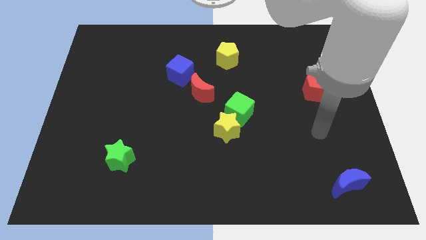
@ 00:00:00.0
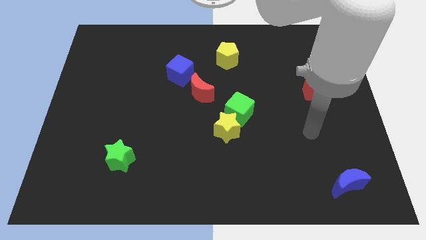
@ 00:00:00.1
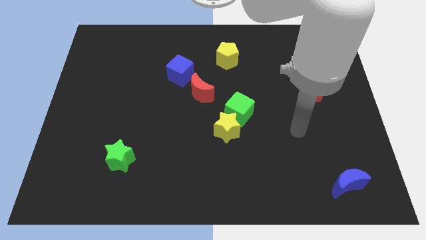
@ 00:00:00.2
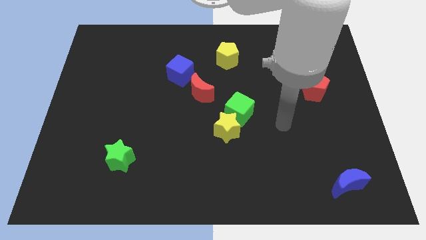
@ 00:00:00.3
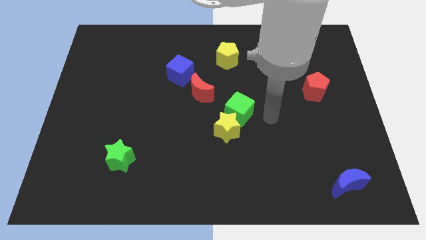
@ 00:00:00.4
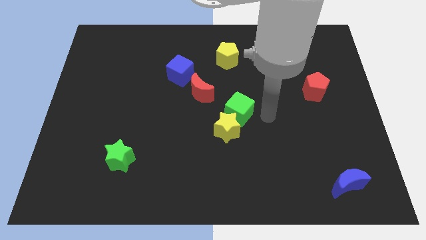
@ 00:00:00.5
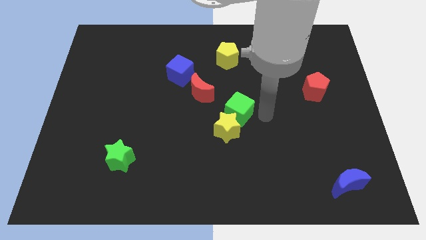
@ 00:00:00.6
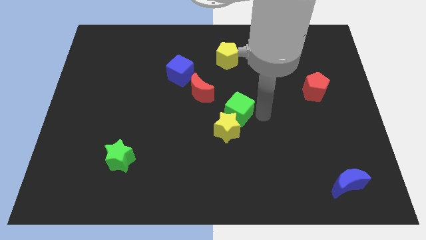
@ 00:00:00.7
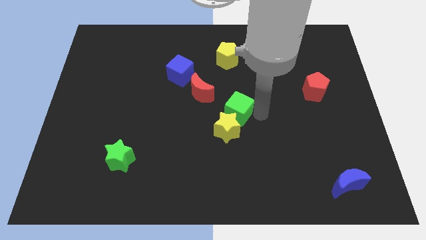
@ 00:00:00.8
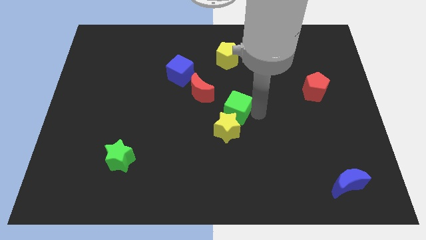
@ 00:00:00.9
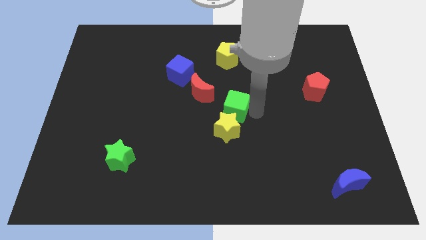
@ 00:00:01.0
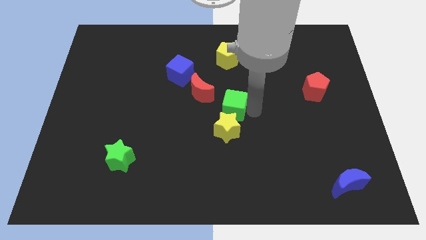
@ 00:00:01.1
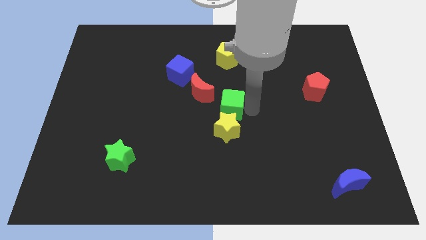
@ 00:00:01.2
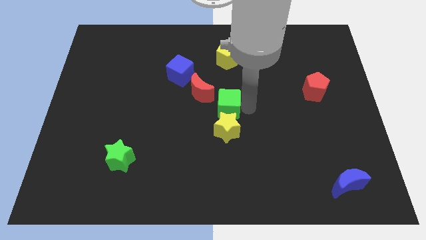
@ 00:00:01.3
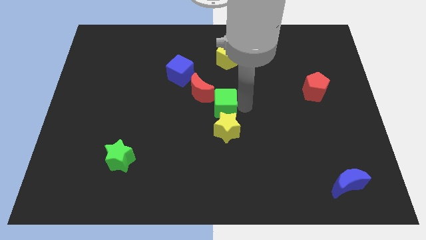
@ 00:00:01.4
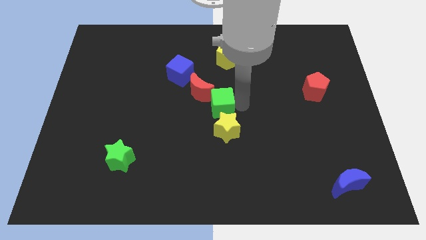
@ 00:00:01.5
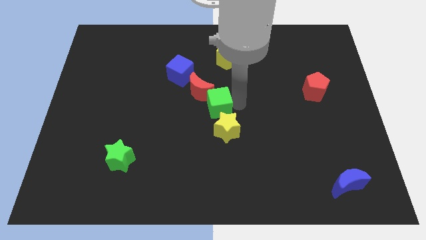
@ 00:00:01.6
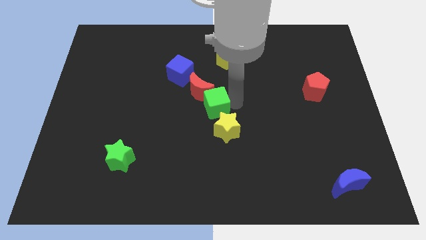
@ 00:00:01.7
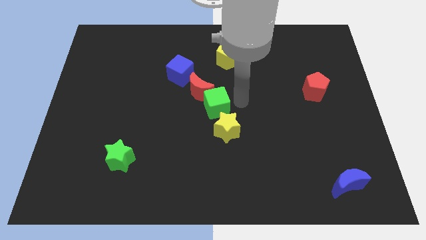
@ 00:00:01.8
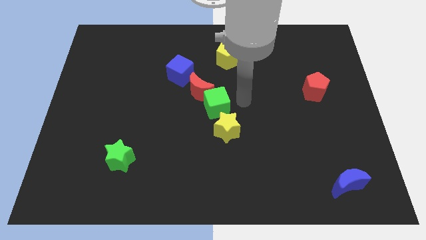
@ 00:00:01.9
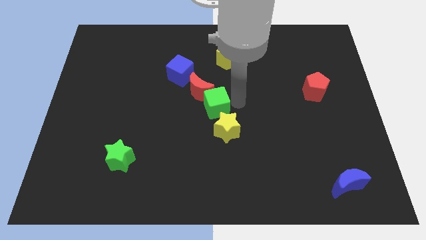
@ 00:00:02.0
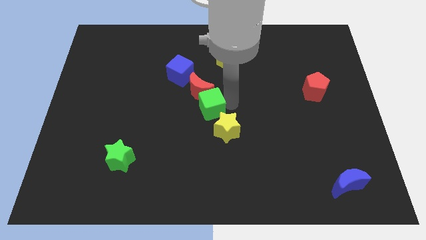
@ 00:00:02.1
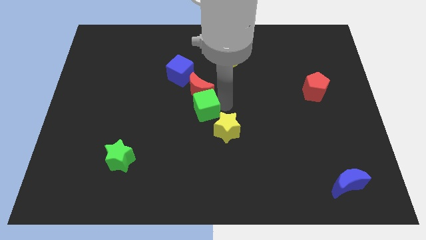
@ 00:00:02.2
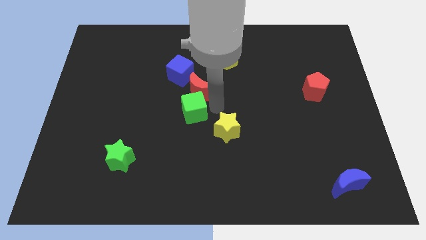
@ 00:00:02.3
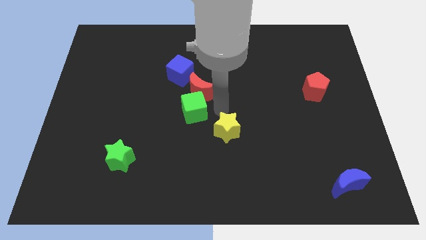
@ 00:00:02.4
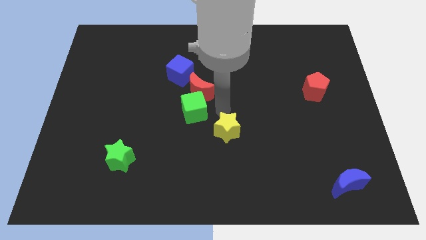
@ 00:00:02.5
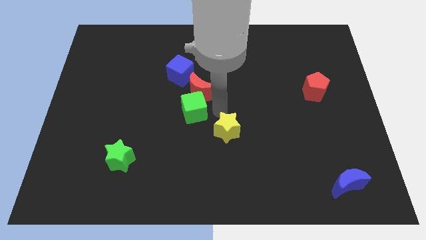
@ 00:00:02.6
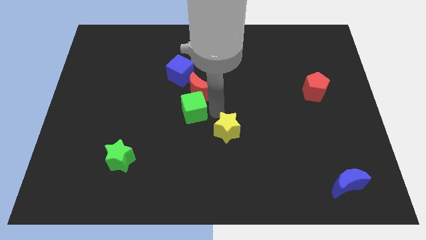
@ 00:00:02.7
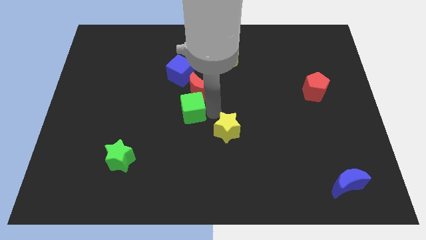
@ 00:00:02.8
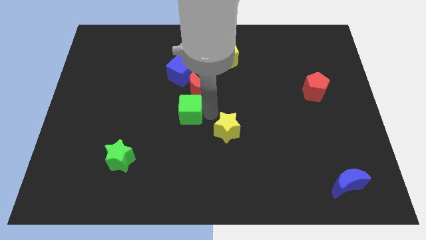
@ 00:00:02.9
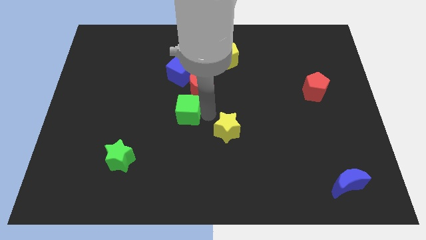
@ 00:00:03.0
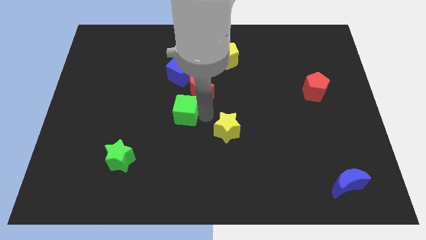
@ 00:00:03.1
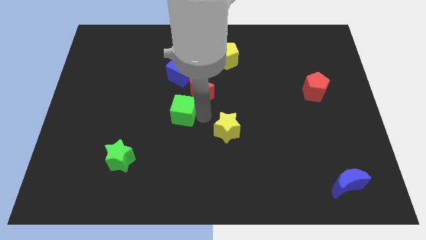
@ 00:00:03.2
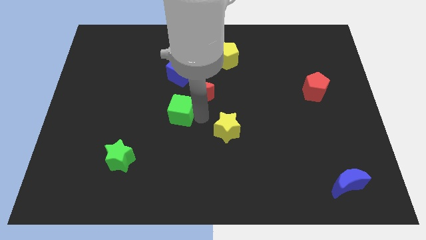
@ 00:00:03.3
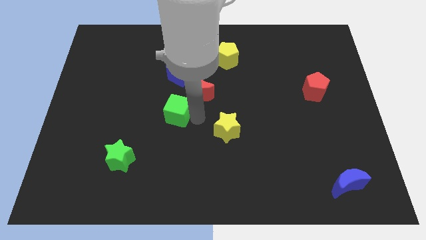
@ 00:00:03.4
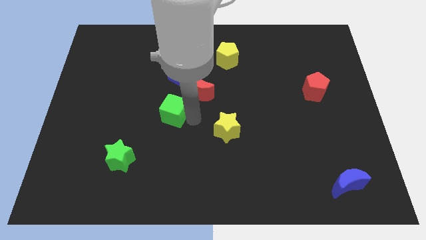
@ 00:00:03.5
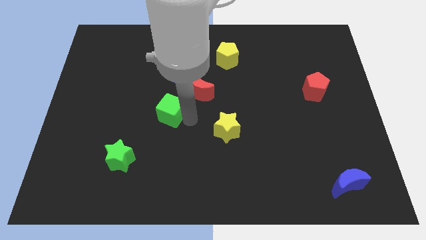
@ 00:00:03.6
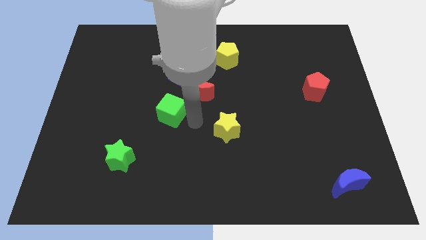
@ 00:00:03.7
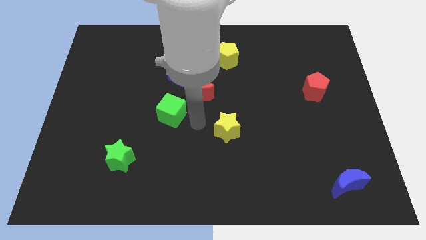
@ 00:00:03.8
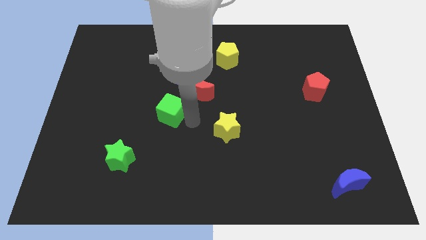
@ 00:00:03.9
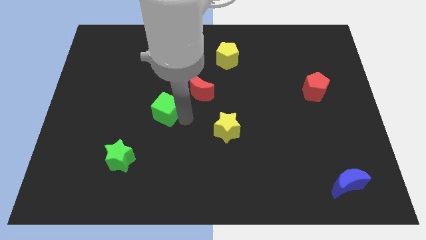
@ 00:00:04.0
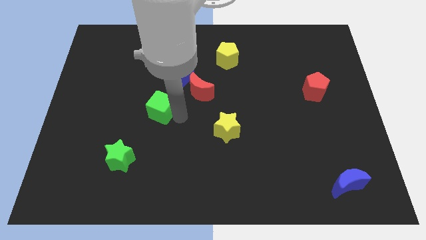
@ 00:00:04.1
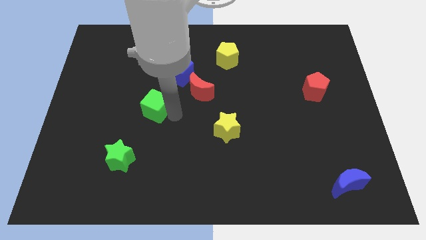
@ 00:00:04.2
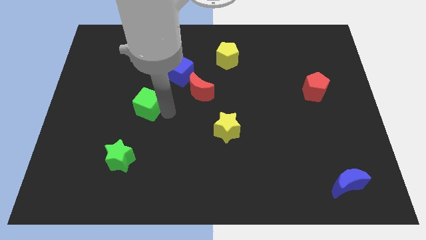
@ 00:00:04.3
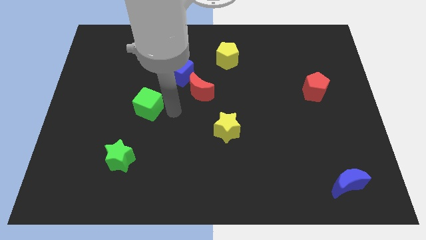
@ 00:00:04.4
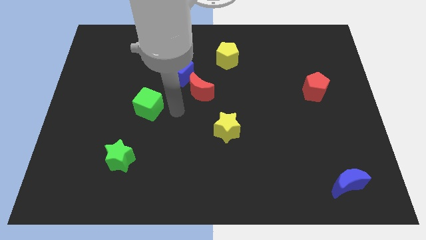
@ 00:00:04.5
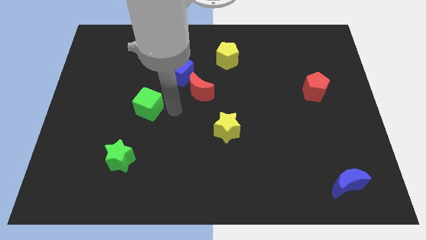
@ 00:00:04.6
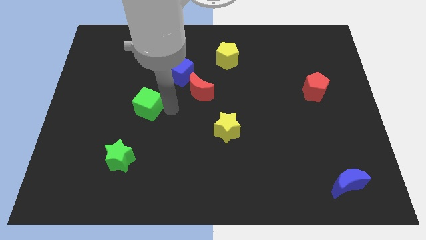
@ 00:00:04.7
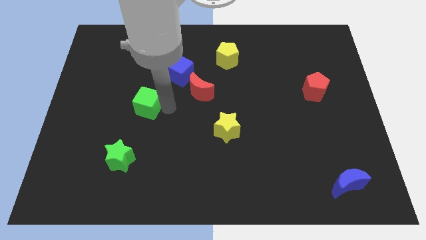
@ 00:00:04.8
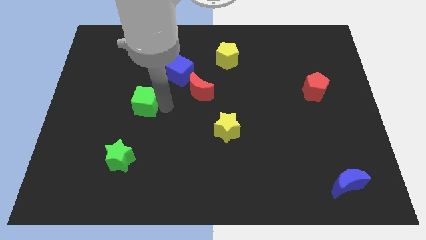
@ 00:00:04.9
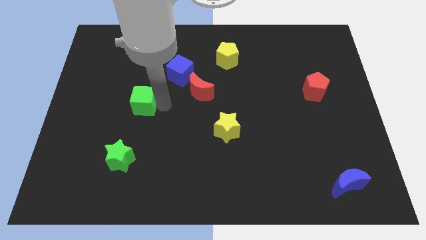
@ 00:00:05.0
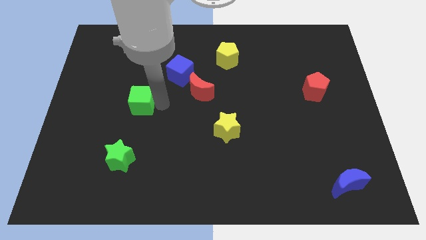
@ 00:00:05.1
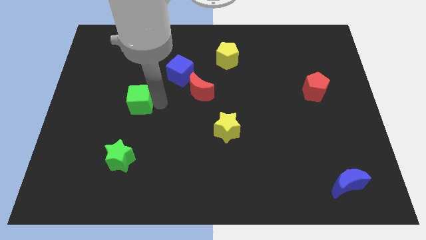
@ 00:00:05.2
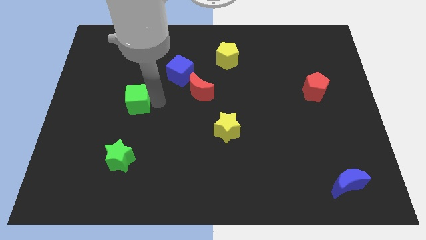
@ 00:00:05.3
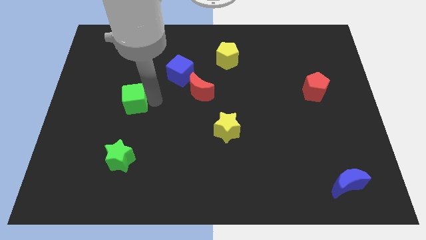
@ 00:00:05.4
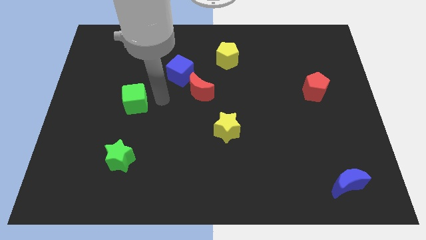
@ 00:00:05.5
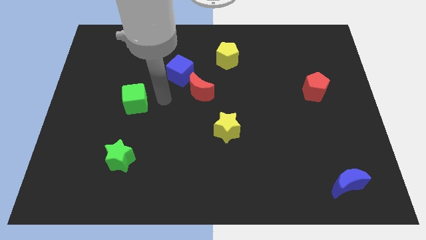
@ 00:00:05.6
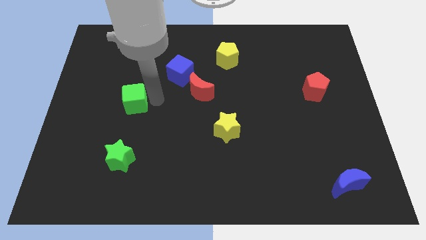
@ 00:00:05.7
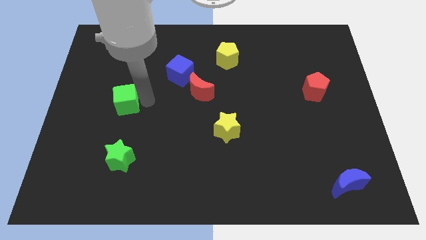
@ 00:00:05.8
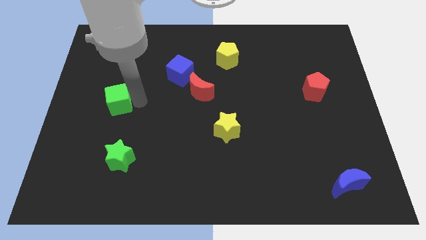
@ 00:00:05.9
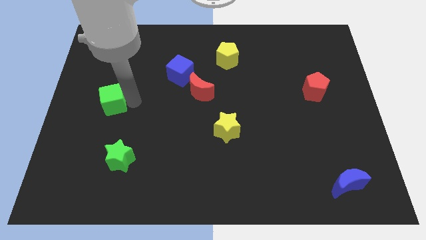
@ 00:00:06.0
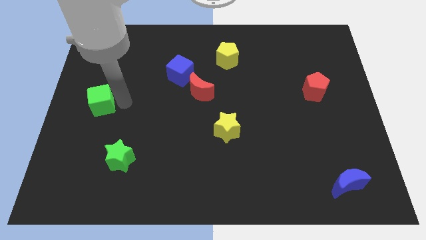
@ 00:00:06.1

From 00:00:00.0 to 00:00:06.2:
put the green cube to the center left

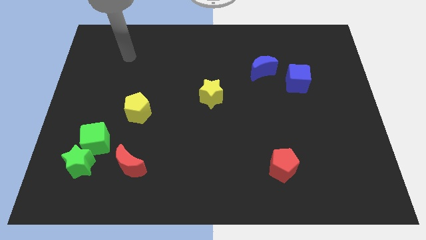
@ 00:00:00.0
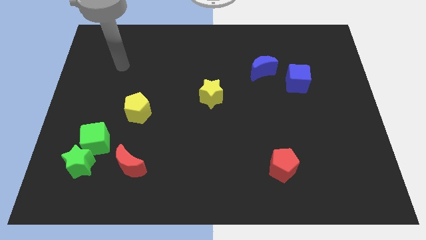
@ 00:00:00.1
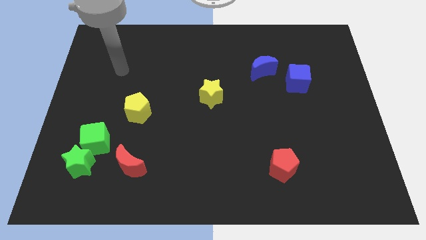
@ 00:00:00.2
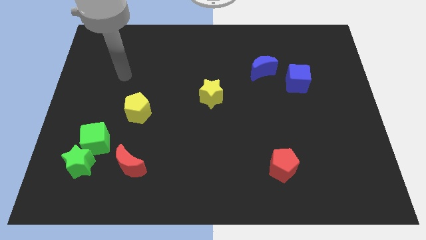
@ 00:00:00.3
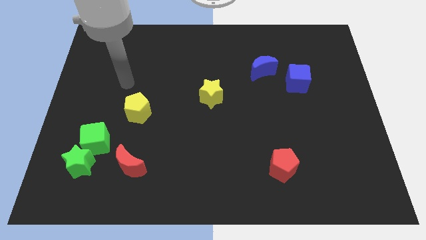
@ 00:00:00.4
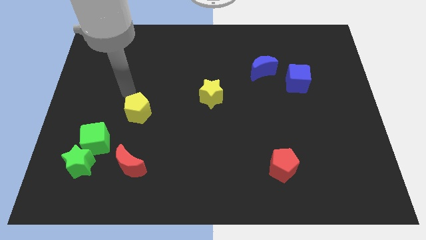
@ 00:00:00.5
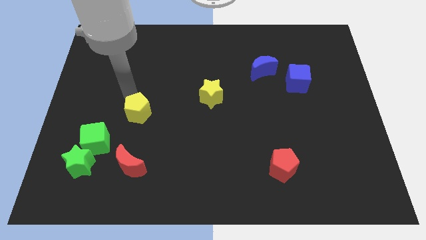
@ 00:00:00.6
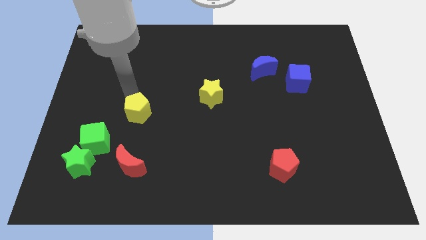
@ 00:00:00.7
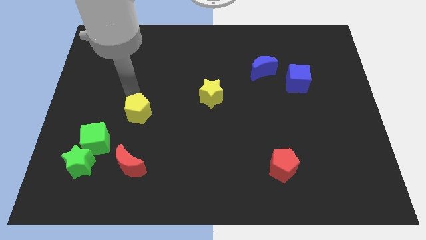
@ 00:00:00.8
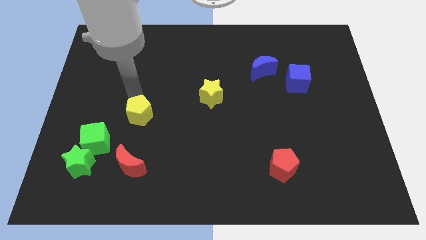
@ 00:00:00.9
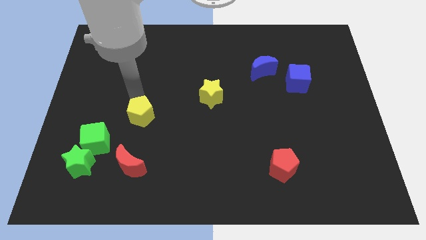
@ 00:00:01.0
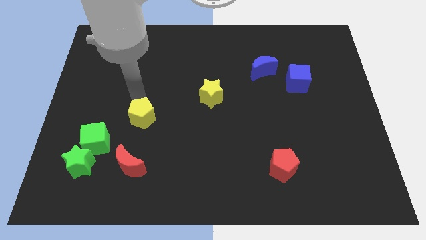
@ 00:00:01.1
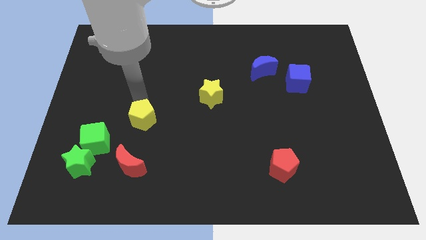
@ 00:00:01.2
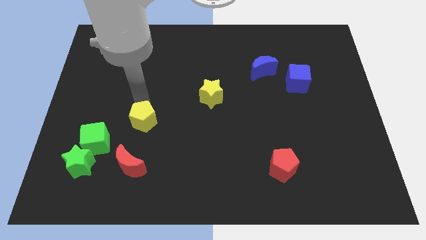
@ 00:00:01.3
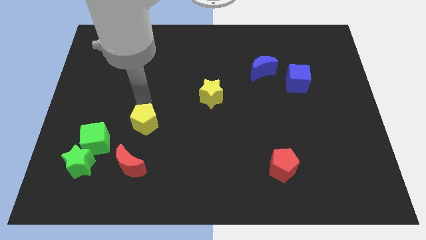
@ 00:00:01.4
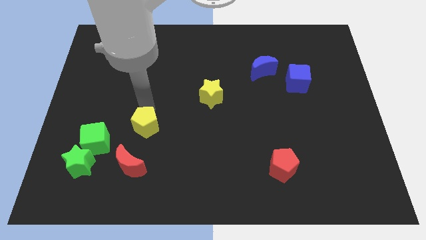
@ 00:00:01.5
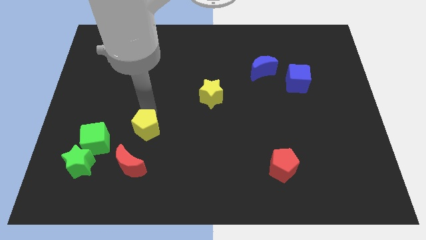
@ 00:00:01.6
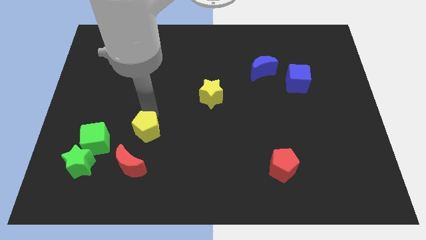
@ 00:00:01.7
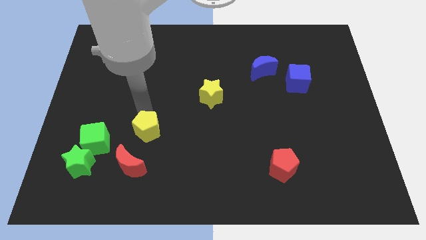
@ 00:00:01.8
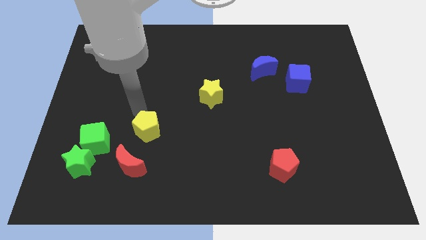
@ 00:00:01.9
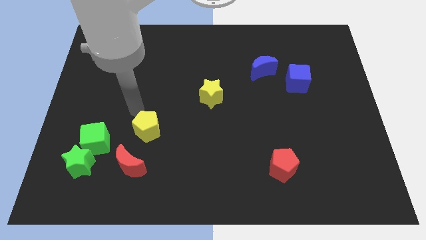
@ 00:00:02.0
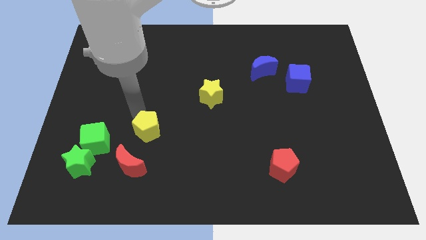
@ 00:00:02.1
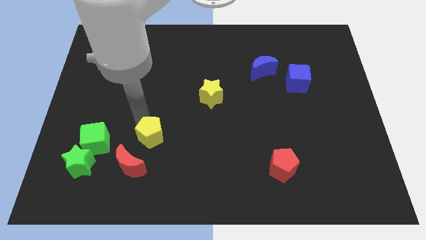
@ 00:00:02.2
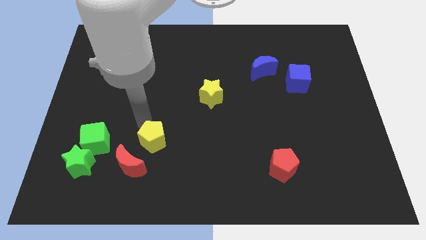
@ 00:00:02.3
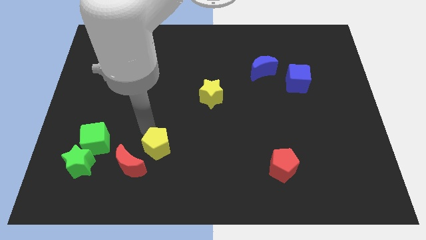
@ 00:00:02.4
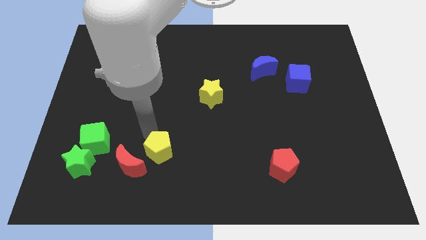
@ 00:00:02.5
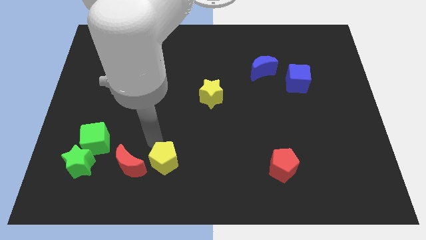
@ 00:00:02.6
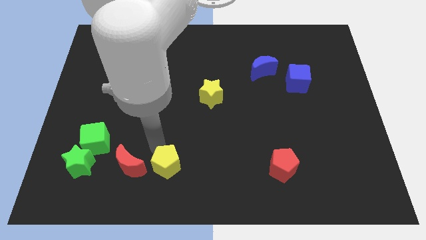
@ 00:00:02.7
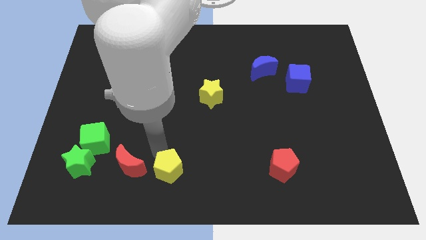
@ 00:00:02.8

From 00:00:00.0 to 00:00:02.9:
push the yellow pentagon to the bottom side
